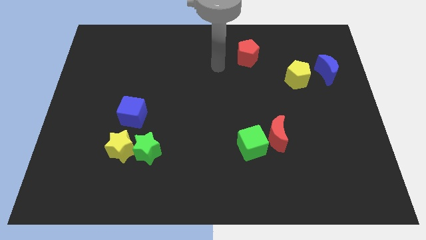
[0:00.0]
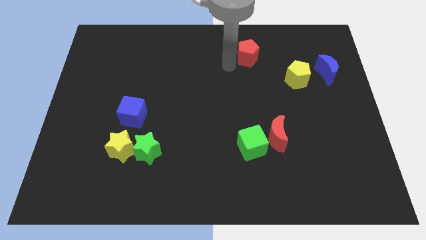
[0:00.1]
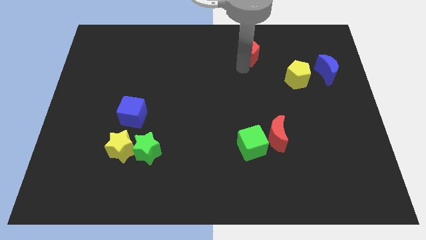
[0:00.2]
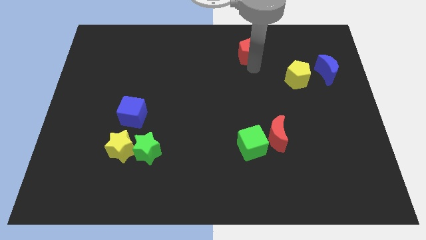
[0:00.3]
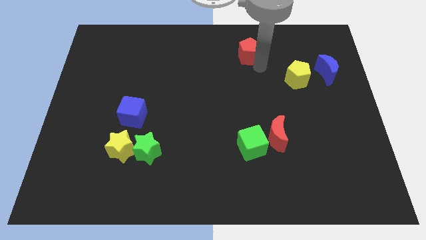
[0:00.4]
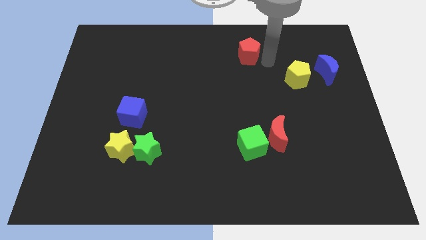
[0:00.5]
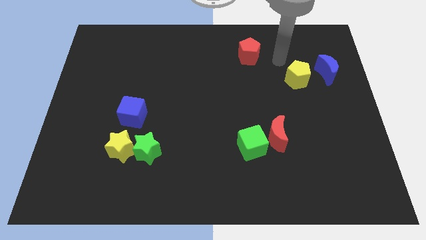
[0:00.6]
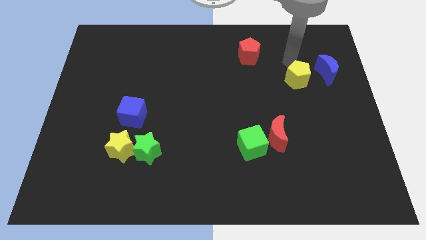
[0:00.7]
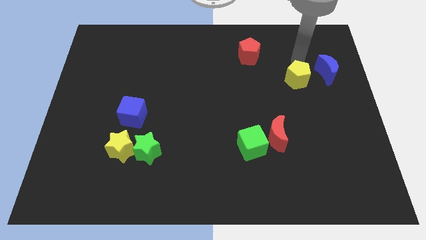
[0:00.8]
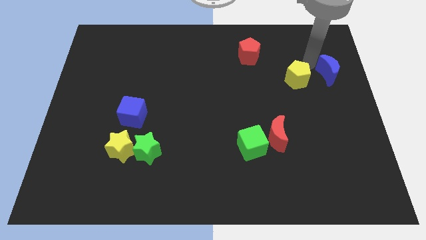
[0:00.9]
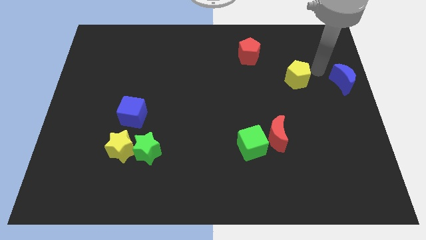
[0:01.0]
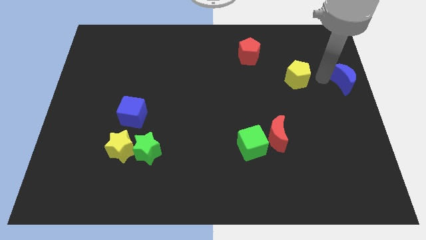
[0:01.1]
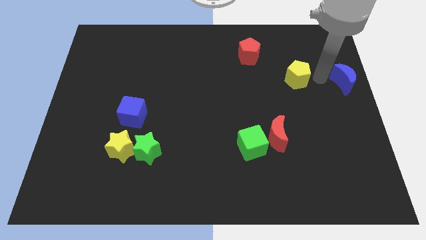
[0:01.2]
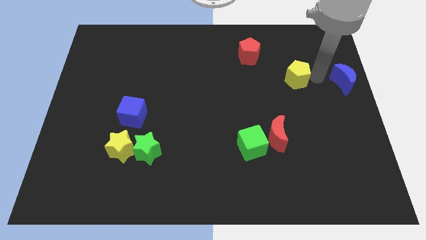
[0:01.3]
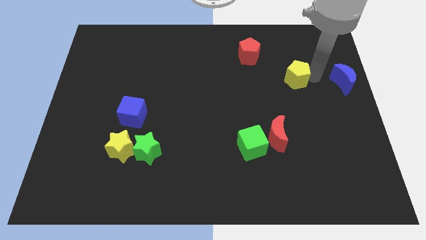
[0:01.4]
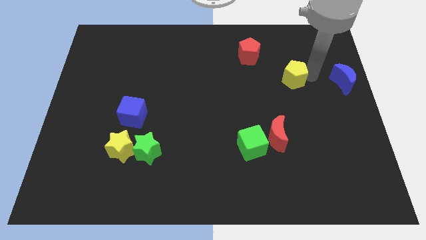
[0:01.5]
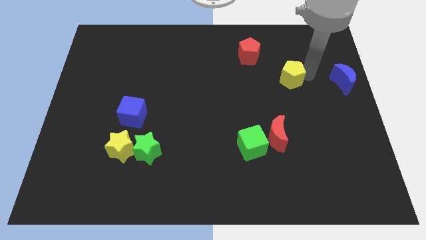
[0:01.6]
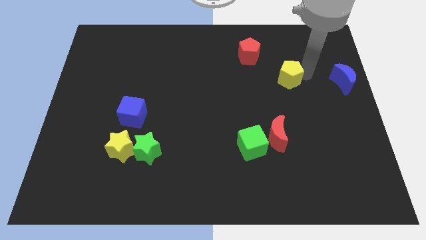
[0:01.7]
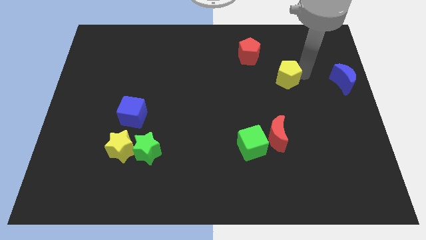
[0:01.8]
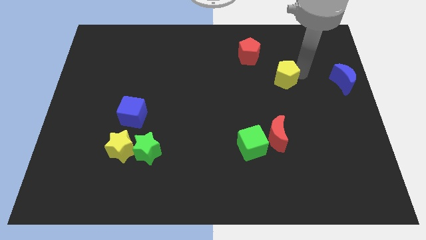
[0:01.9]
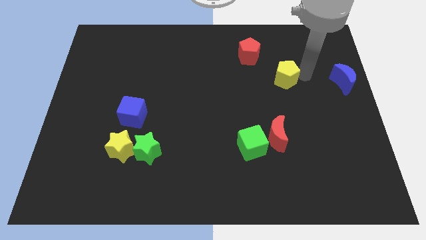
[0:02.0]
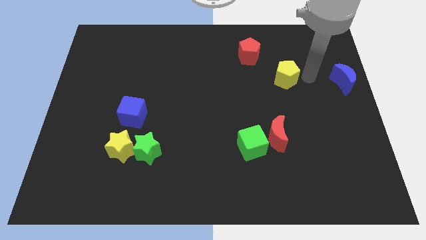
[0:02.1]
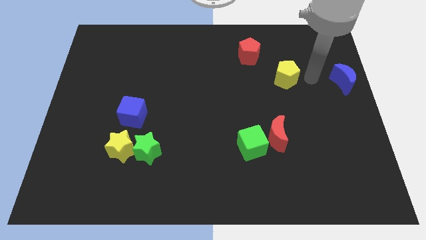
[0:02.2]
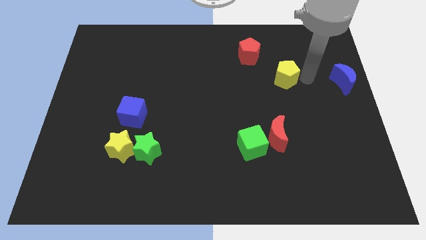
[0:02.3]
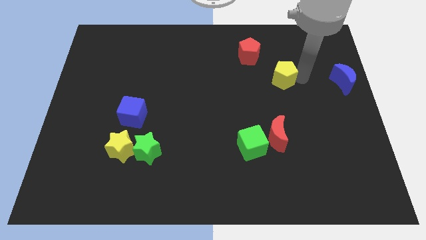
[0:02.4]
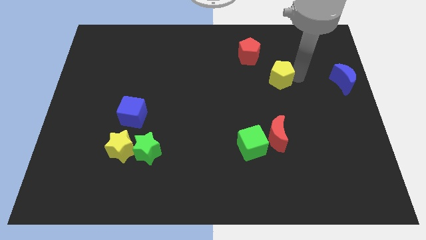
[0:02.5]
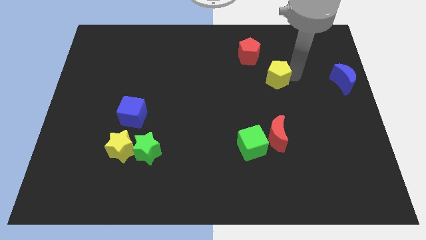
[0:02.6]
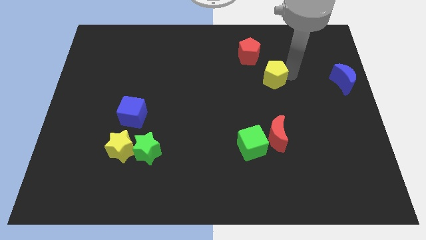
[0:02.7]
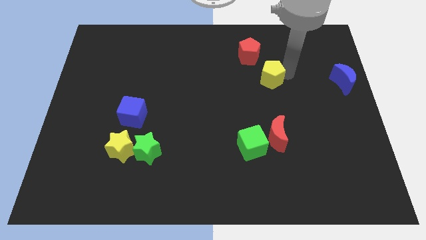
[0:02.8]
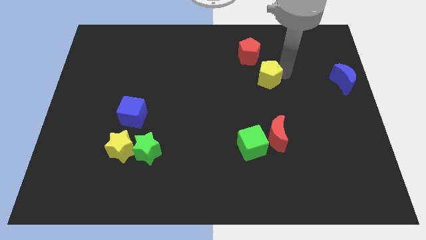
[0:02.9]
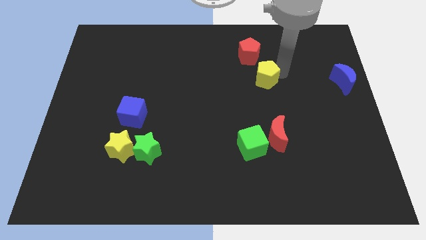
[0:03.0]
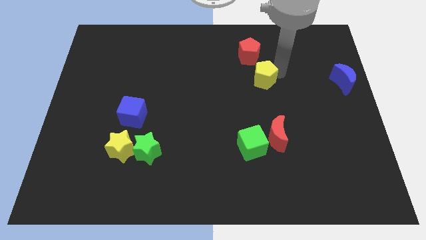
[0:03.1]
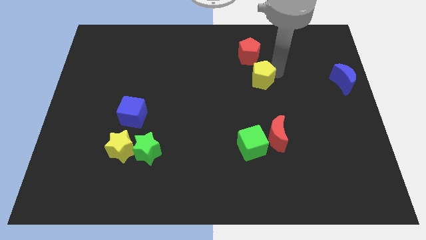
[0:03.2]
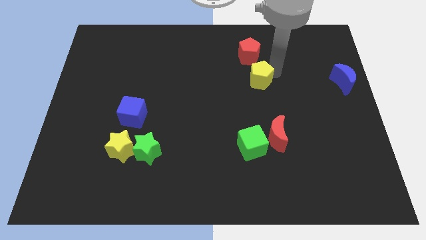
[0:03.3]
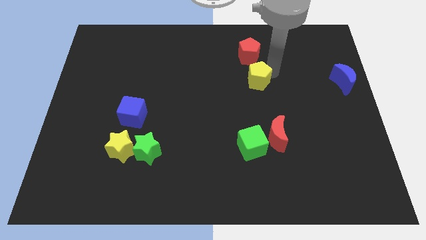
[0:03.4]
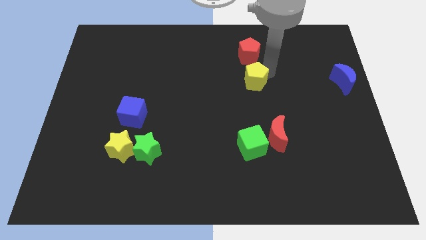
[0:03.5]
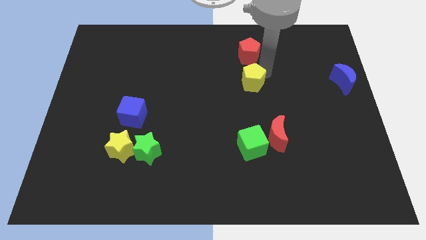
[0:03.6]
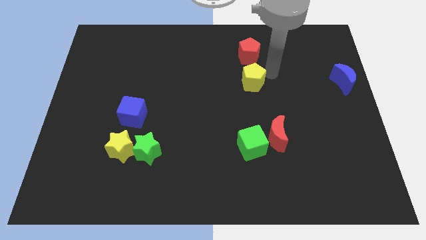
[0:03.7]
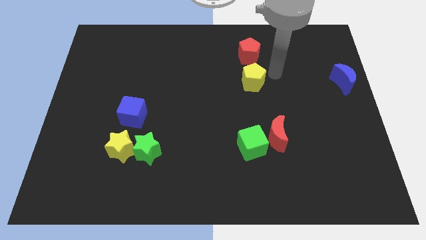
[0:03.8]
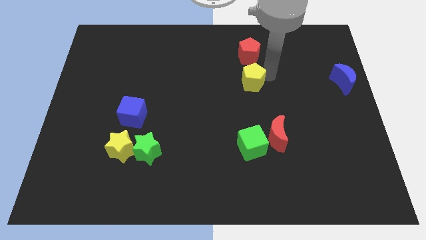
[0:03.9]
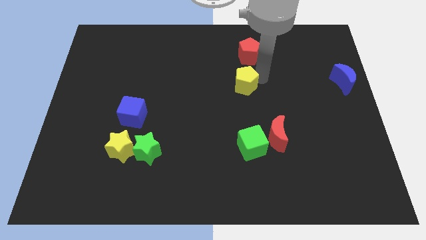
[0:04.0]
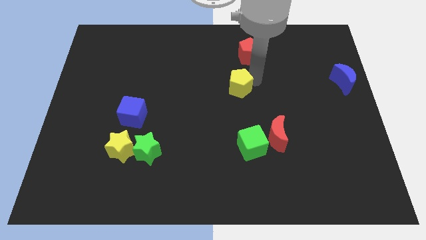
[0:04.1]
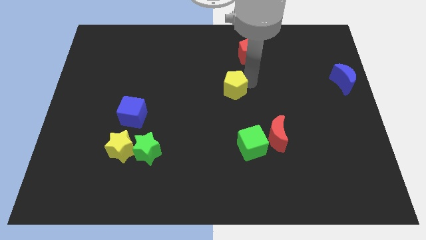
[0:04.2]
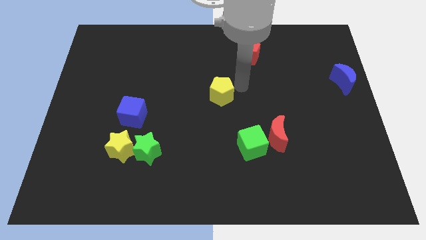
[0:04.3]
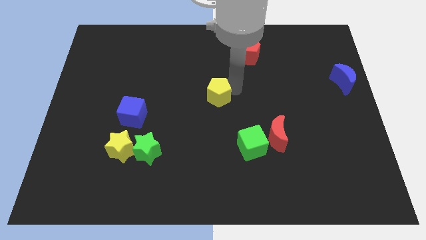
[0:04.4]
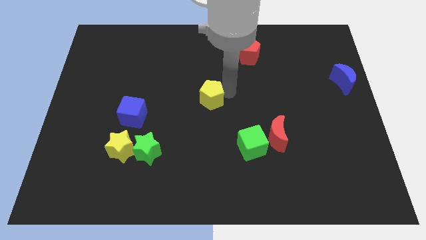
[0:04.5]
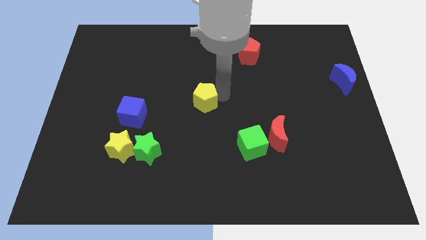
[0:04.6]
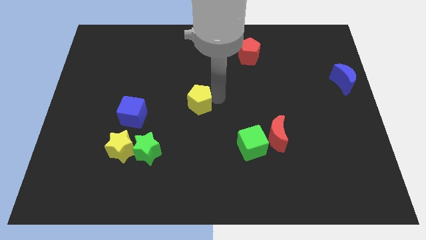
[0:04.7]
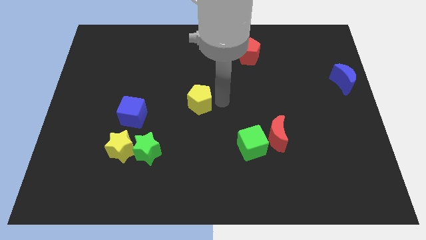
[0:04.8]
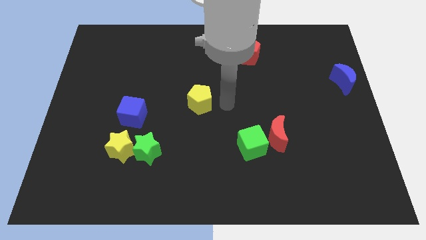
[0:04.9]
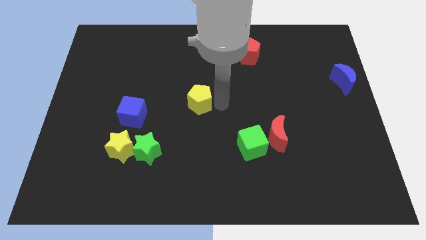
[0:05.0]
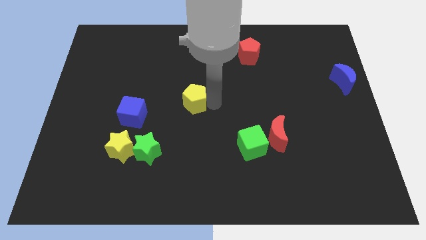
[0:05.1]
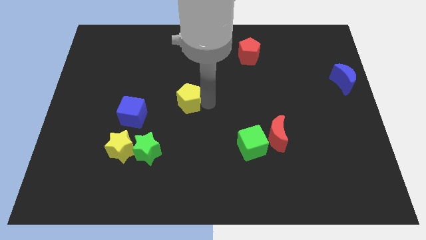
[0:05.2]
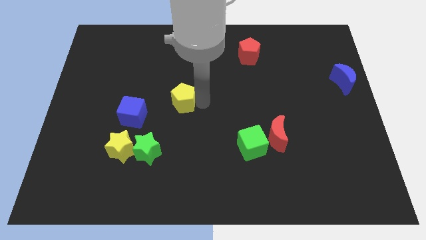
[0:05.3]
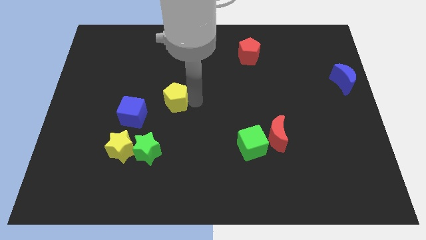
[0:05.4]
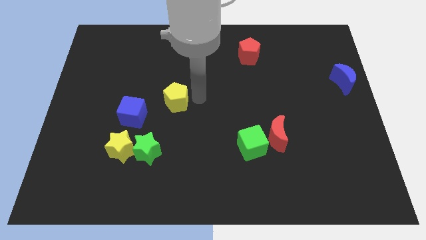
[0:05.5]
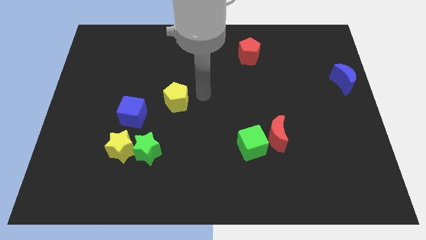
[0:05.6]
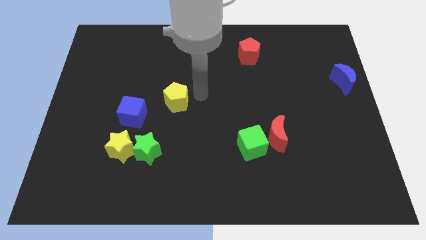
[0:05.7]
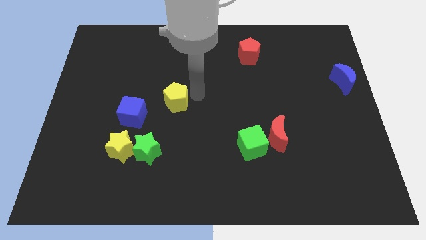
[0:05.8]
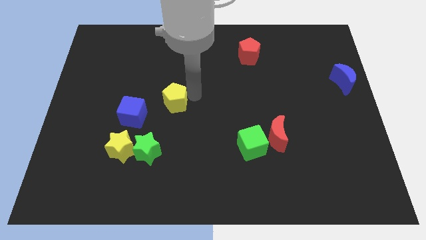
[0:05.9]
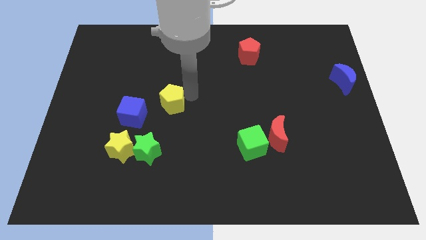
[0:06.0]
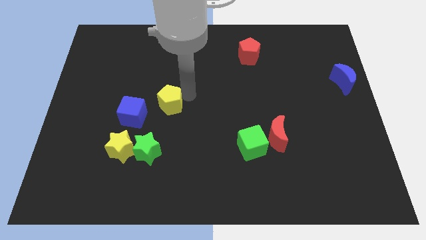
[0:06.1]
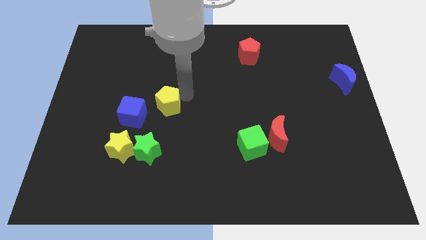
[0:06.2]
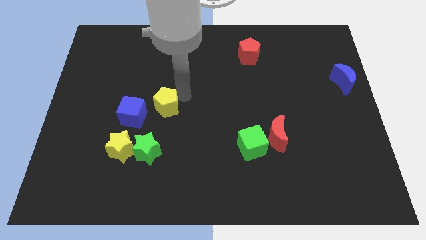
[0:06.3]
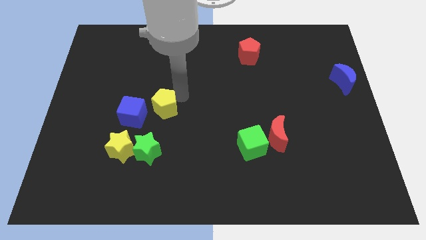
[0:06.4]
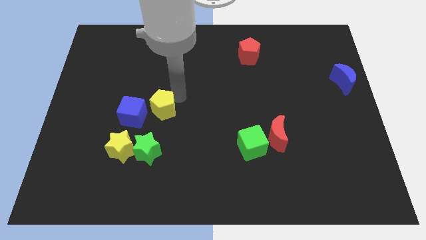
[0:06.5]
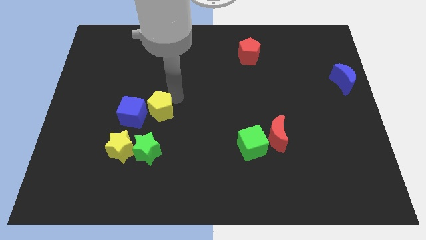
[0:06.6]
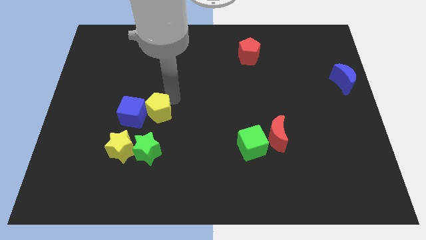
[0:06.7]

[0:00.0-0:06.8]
move the yellow pentagon close to the blue cube
